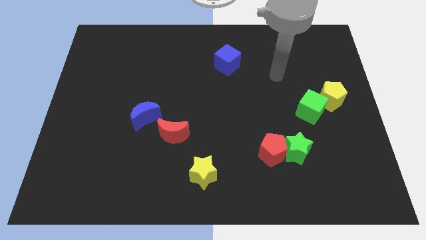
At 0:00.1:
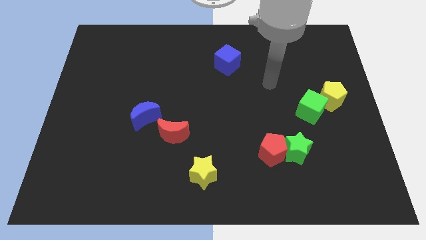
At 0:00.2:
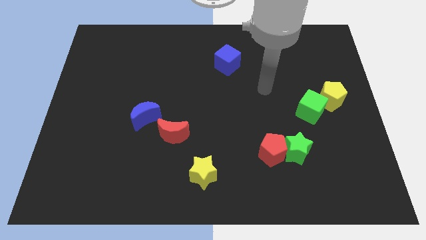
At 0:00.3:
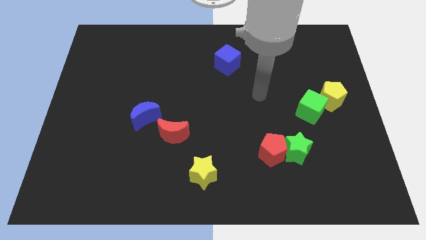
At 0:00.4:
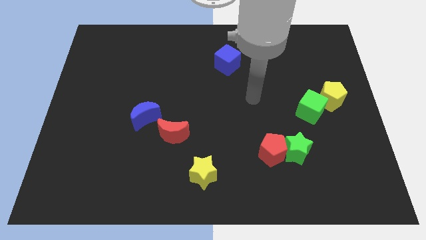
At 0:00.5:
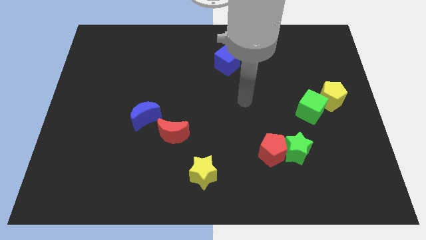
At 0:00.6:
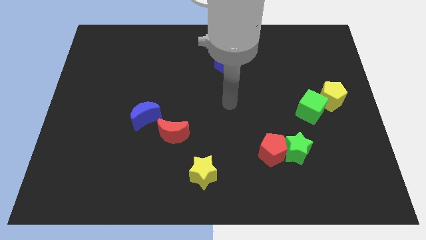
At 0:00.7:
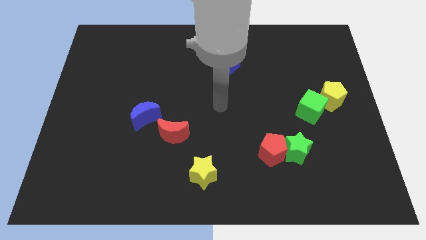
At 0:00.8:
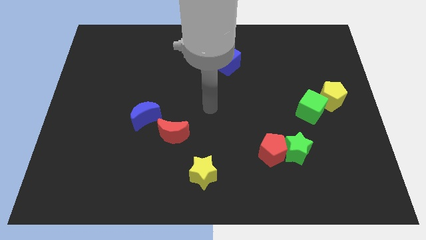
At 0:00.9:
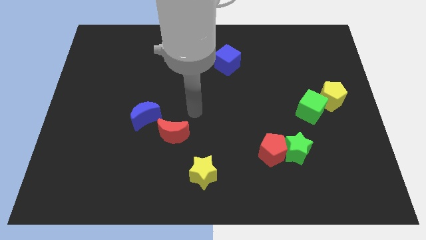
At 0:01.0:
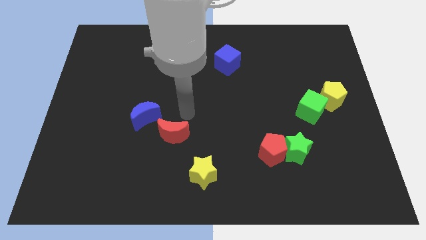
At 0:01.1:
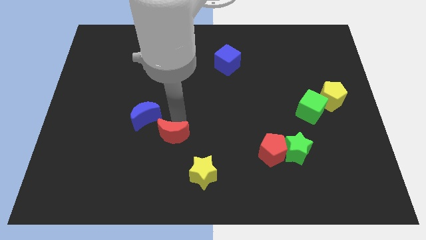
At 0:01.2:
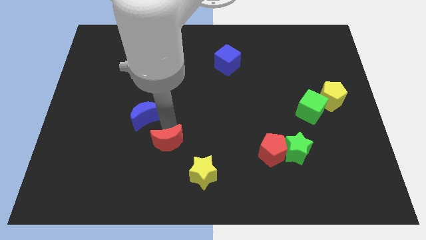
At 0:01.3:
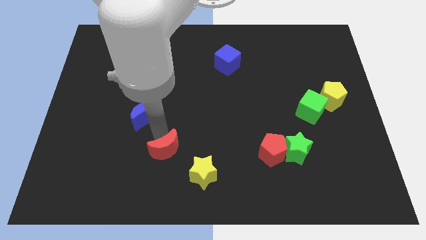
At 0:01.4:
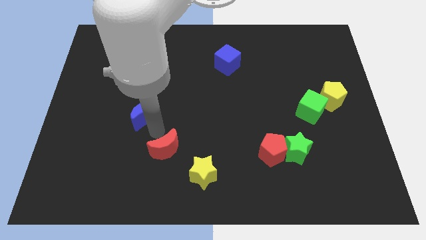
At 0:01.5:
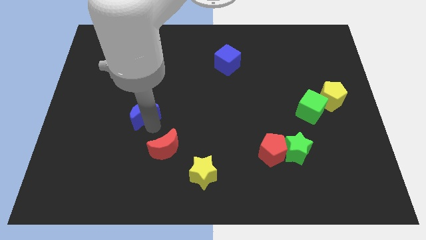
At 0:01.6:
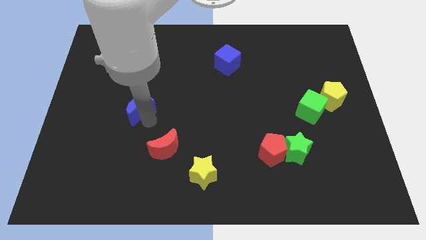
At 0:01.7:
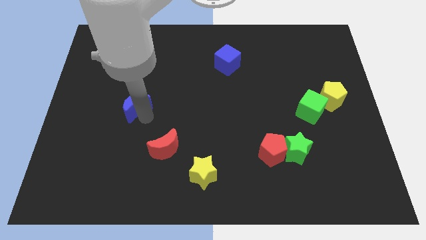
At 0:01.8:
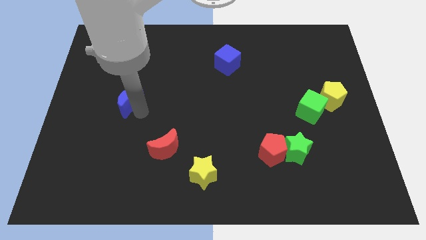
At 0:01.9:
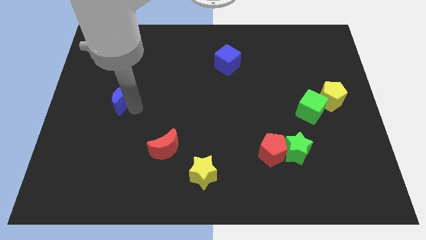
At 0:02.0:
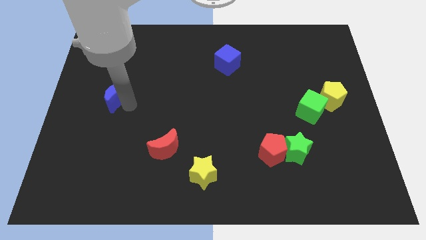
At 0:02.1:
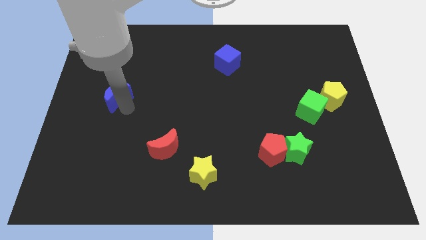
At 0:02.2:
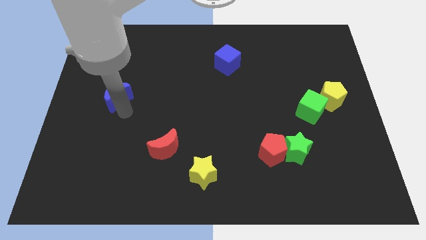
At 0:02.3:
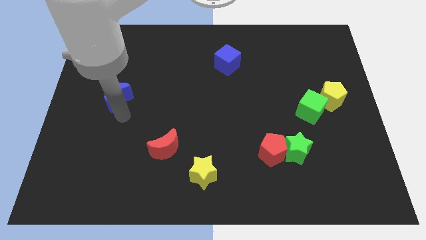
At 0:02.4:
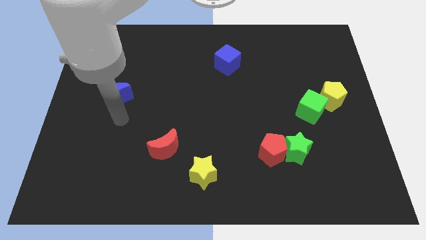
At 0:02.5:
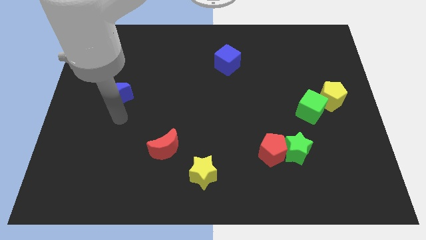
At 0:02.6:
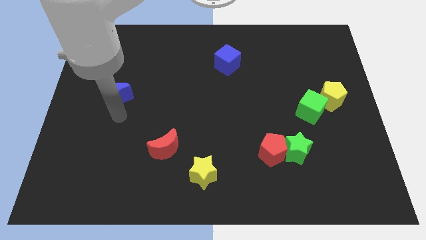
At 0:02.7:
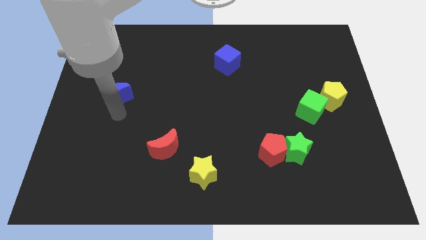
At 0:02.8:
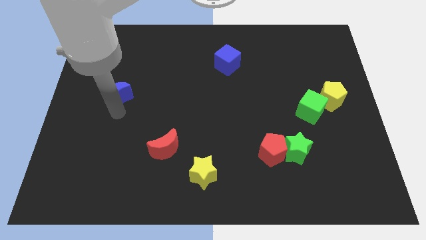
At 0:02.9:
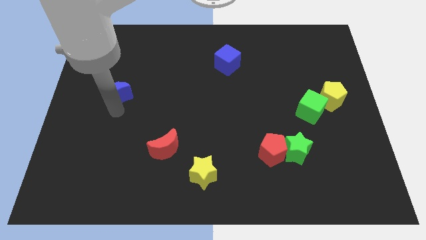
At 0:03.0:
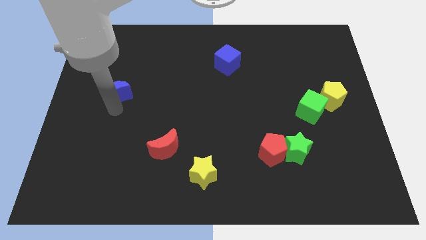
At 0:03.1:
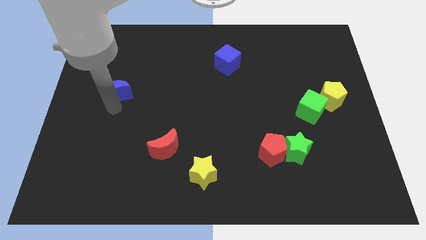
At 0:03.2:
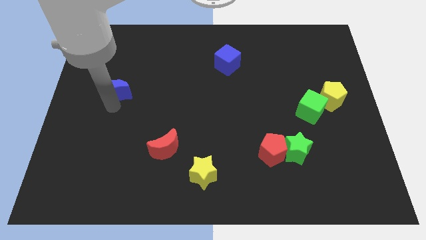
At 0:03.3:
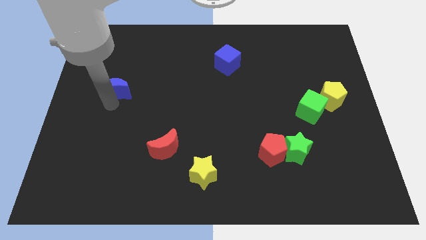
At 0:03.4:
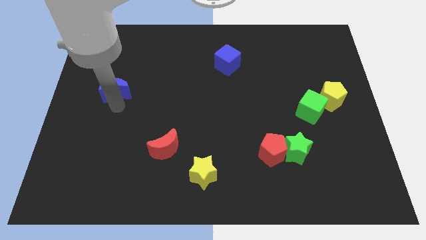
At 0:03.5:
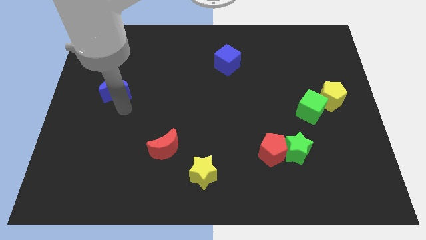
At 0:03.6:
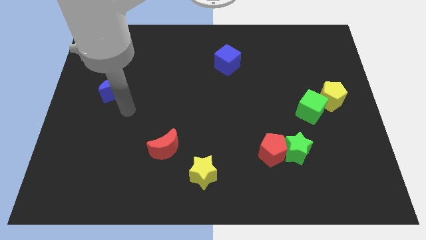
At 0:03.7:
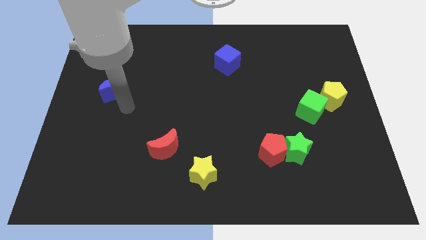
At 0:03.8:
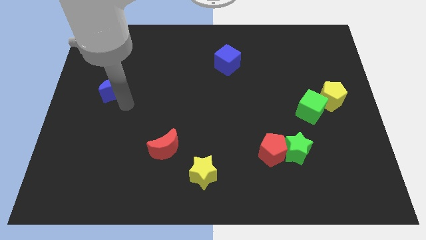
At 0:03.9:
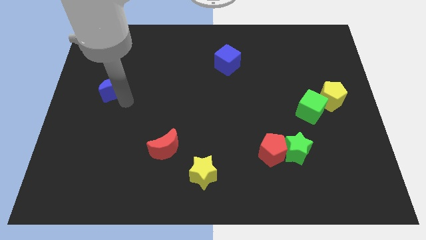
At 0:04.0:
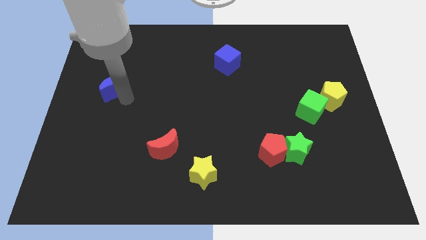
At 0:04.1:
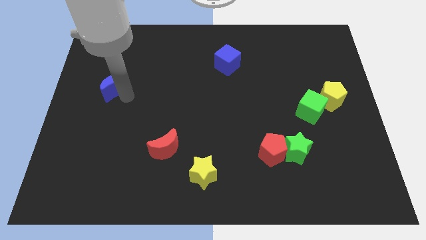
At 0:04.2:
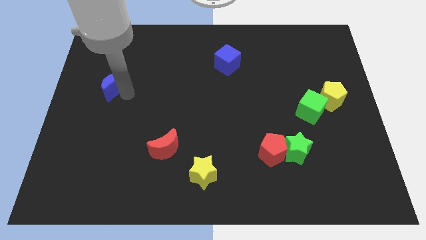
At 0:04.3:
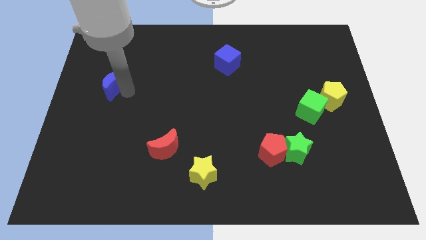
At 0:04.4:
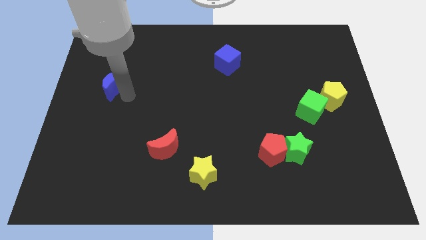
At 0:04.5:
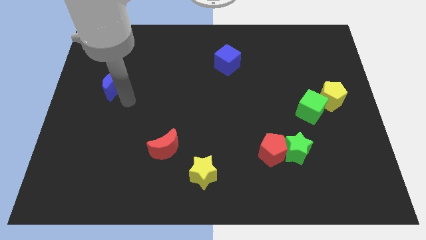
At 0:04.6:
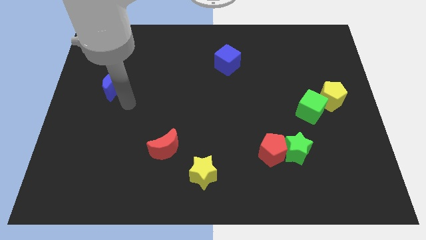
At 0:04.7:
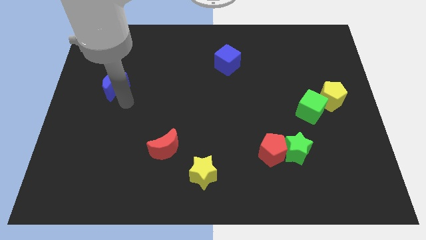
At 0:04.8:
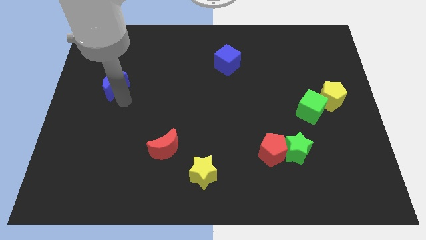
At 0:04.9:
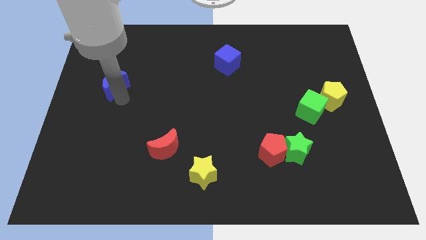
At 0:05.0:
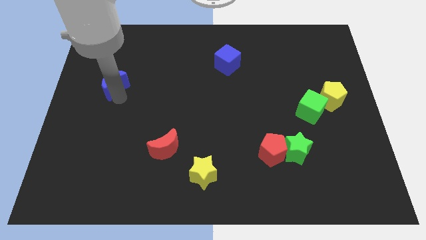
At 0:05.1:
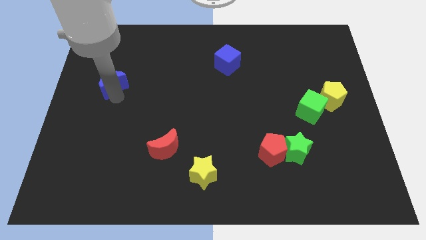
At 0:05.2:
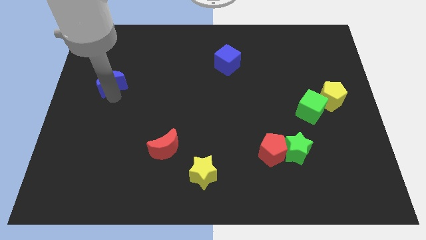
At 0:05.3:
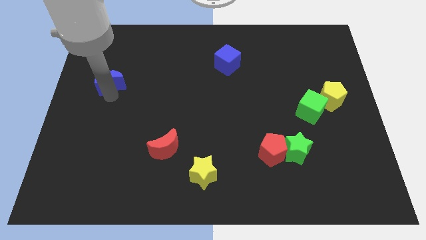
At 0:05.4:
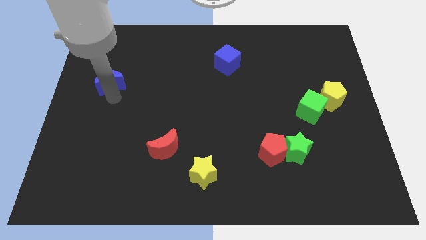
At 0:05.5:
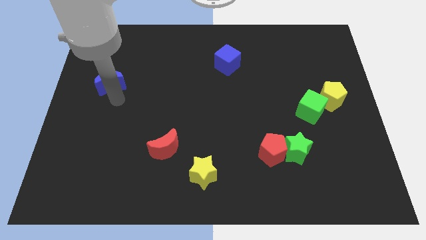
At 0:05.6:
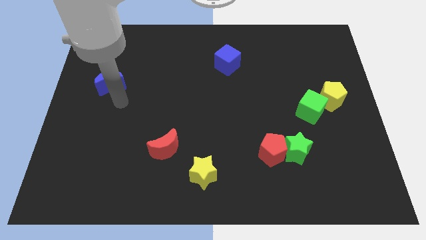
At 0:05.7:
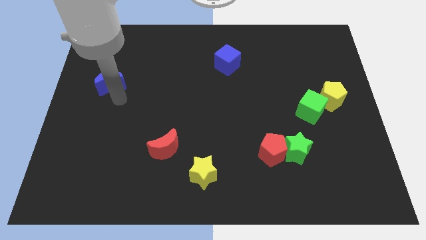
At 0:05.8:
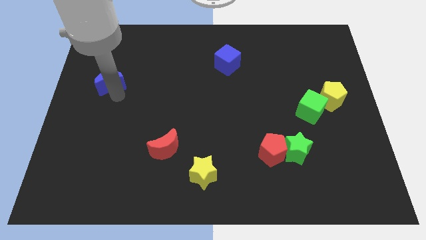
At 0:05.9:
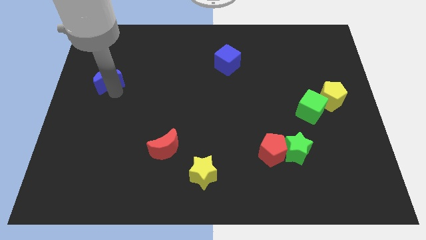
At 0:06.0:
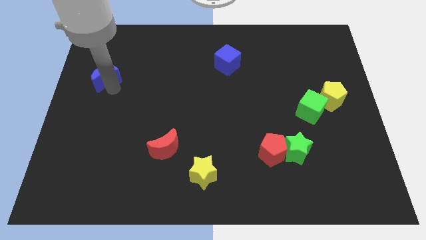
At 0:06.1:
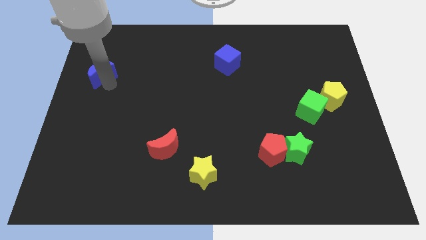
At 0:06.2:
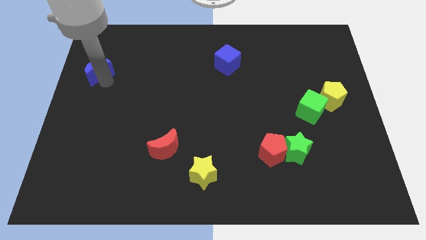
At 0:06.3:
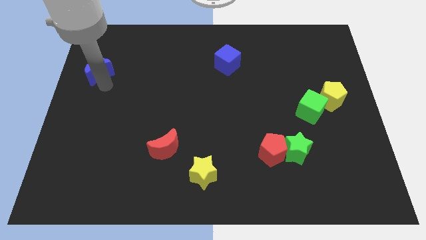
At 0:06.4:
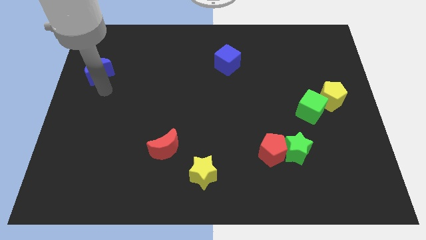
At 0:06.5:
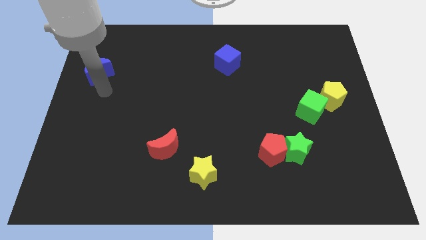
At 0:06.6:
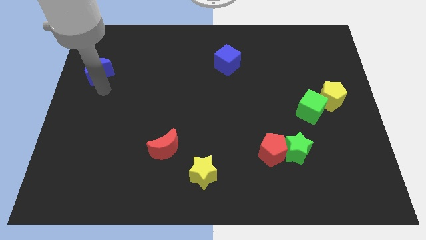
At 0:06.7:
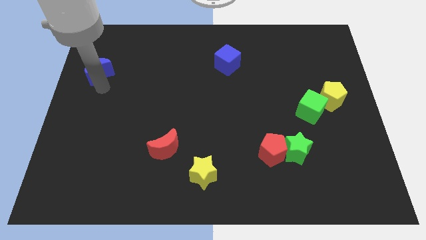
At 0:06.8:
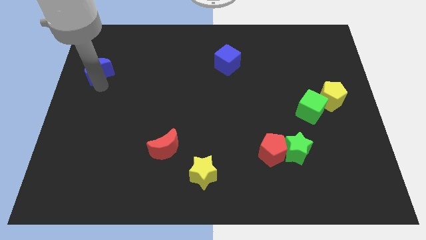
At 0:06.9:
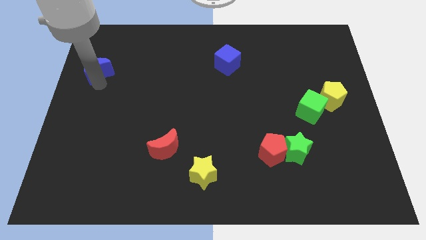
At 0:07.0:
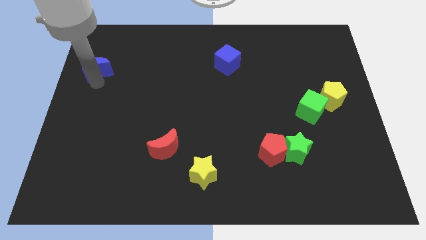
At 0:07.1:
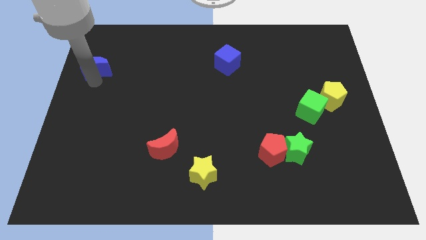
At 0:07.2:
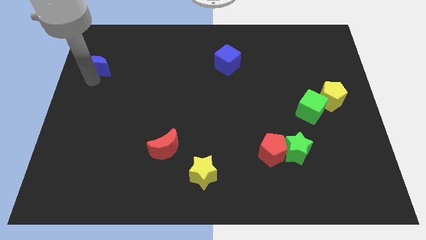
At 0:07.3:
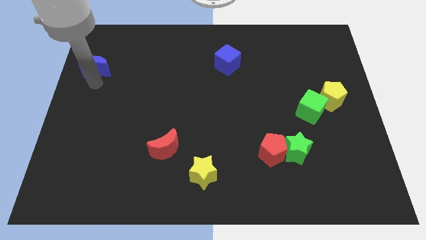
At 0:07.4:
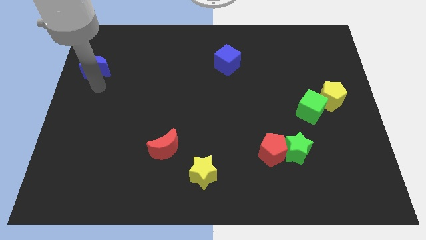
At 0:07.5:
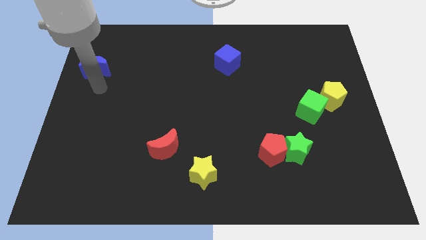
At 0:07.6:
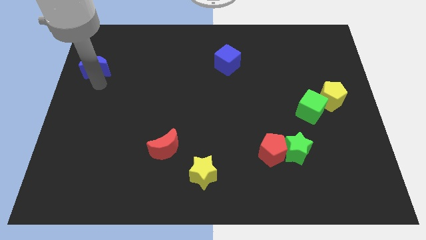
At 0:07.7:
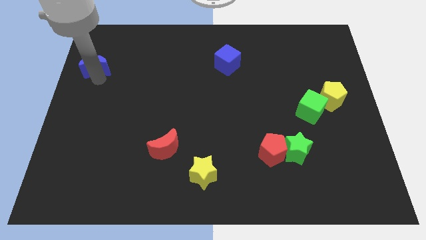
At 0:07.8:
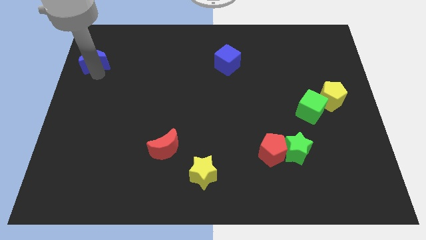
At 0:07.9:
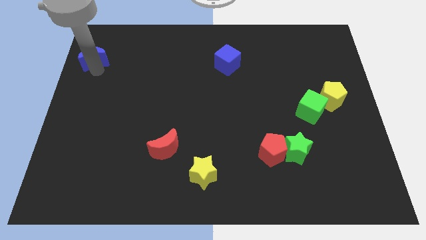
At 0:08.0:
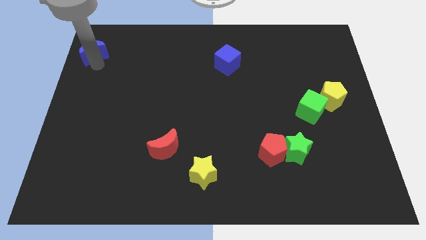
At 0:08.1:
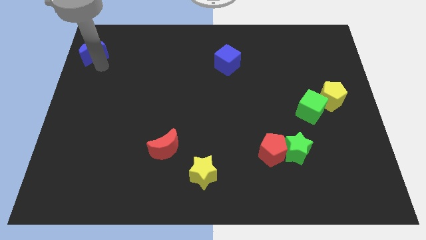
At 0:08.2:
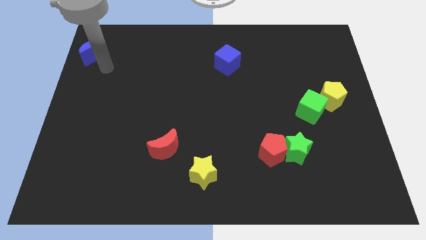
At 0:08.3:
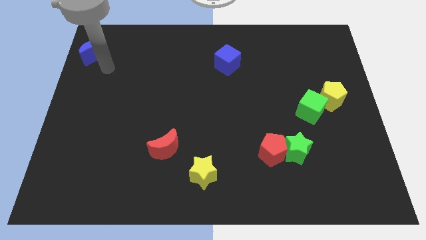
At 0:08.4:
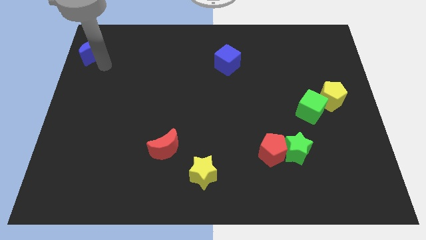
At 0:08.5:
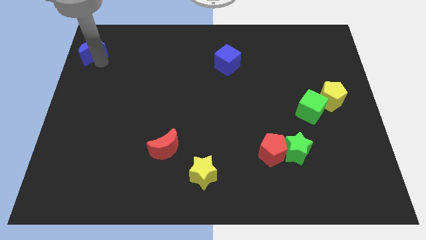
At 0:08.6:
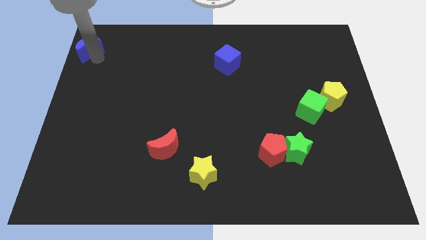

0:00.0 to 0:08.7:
put the blue moon to the upper left corner
